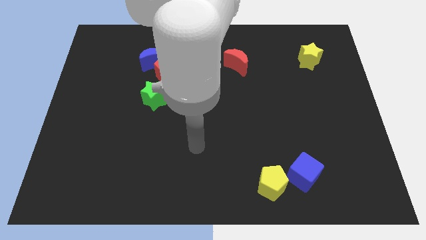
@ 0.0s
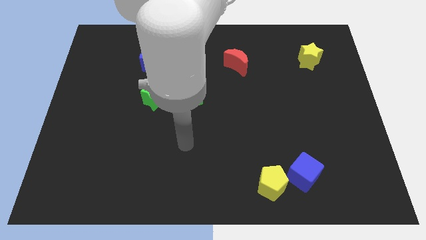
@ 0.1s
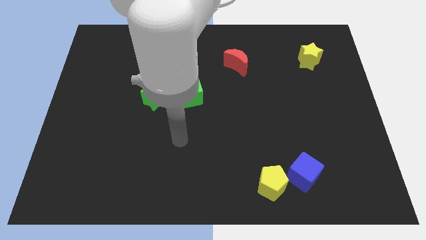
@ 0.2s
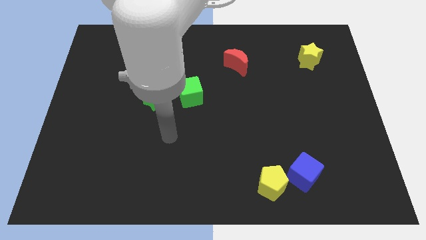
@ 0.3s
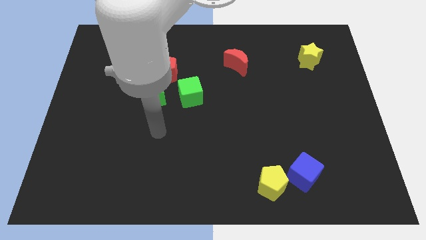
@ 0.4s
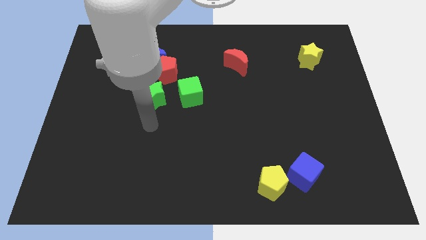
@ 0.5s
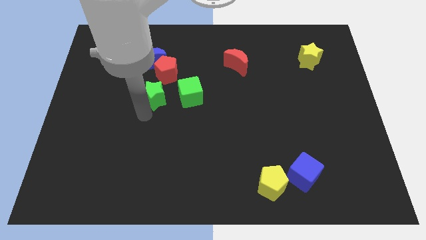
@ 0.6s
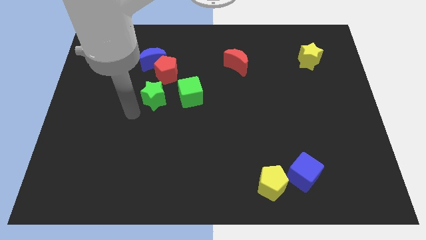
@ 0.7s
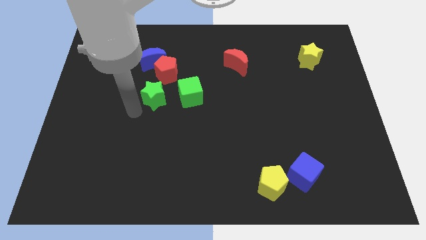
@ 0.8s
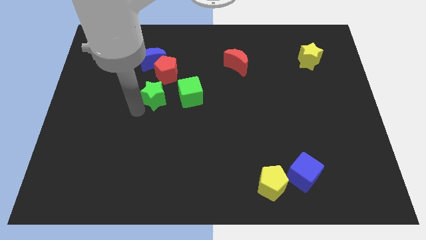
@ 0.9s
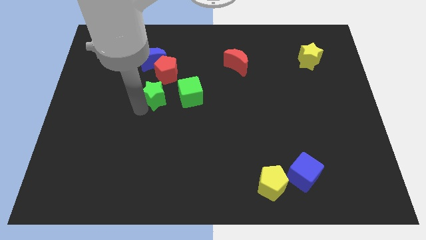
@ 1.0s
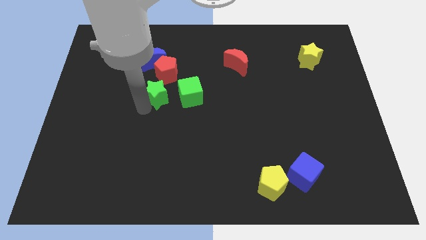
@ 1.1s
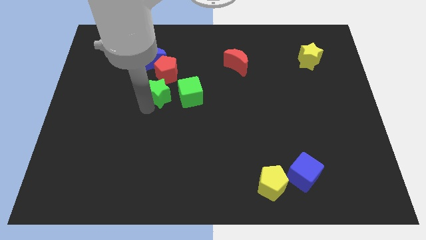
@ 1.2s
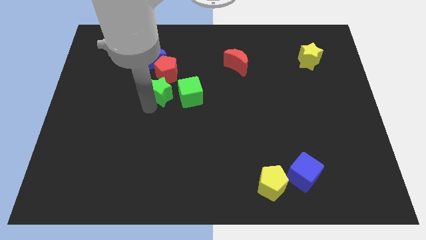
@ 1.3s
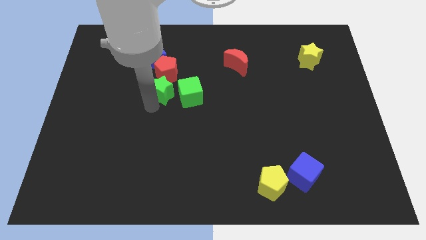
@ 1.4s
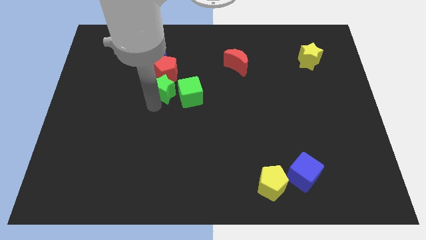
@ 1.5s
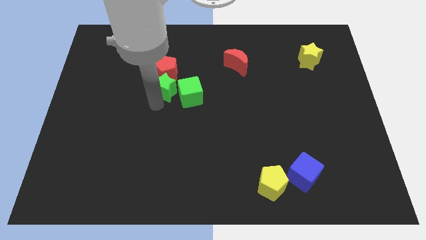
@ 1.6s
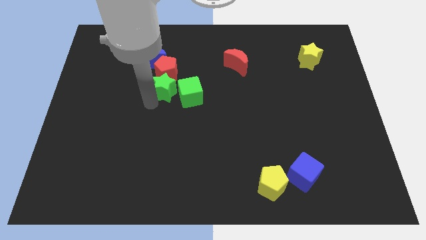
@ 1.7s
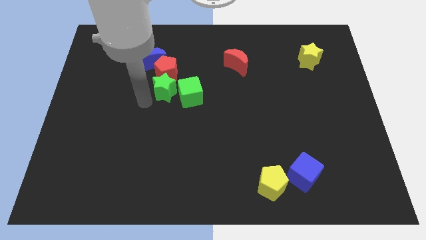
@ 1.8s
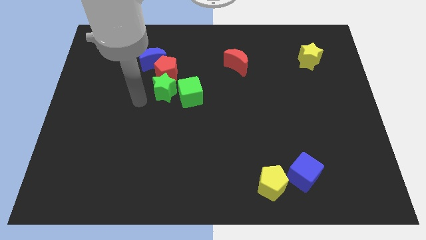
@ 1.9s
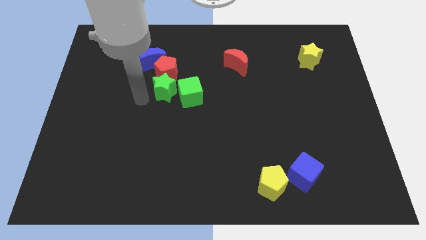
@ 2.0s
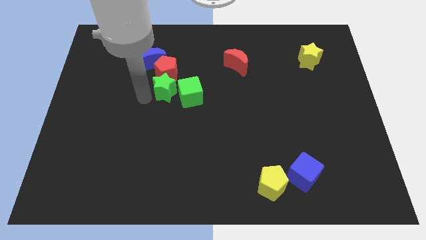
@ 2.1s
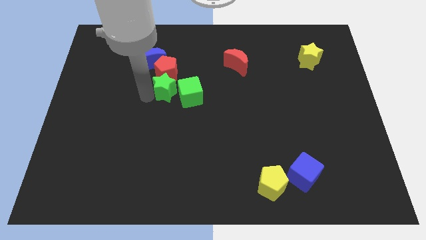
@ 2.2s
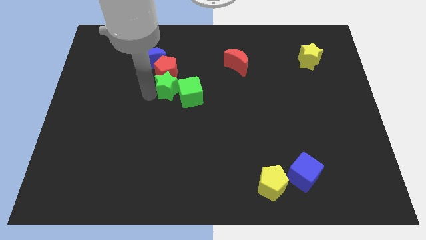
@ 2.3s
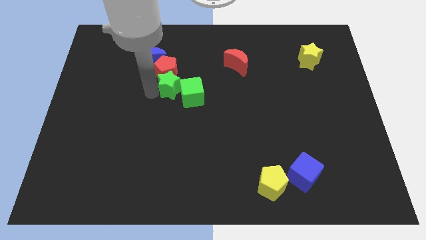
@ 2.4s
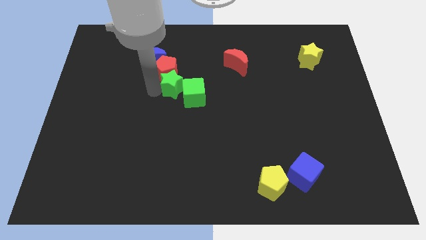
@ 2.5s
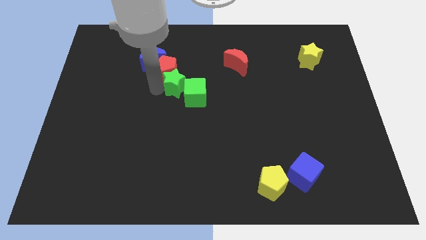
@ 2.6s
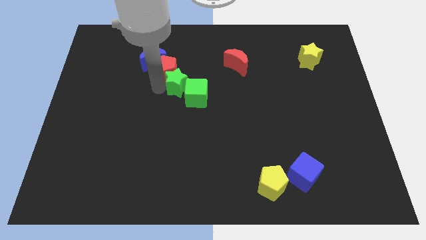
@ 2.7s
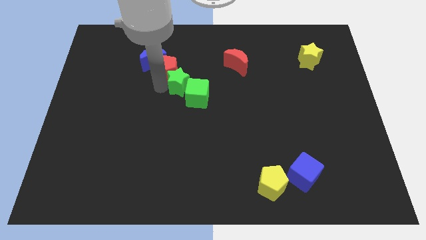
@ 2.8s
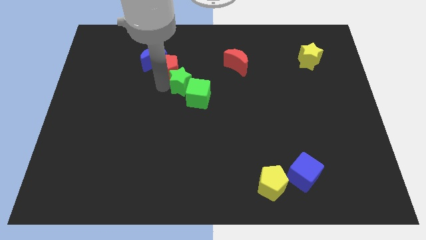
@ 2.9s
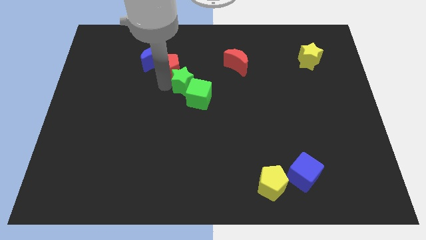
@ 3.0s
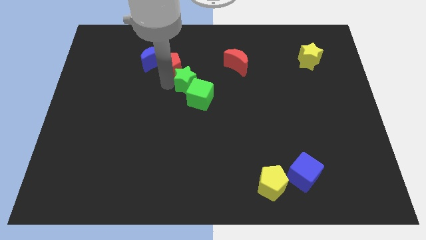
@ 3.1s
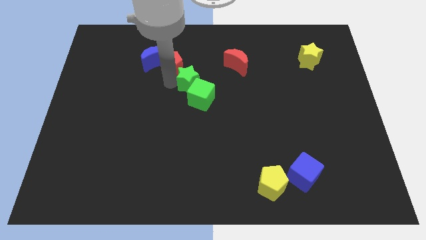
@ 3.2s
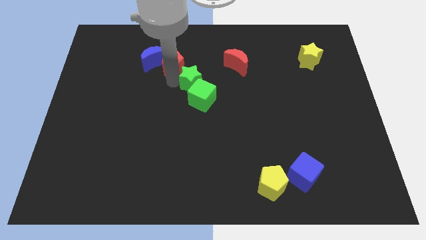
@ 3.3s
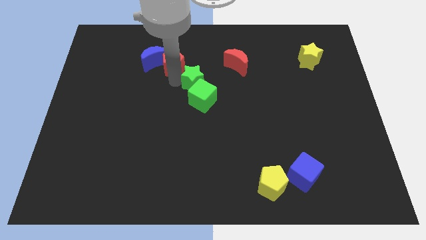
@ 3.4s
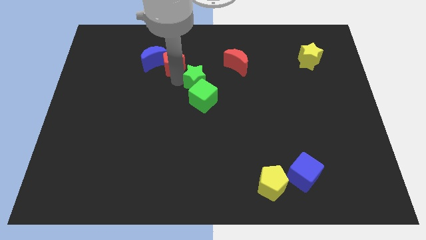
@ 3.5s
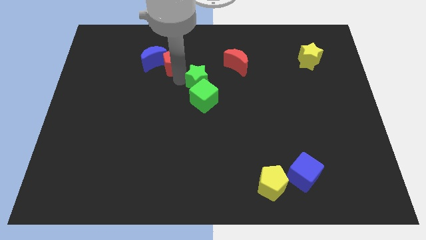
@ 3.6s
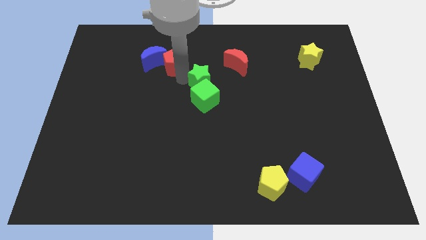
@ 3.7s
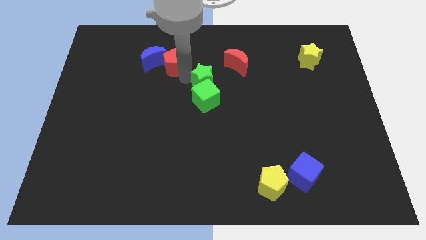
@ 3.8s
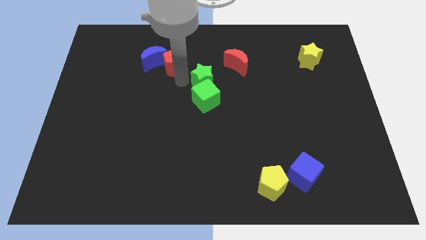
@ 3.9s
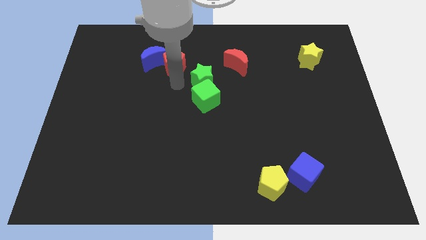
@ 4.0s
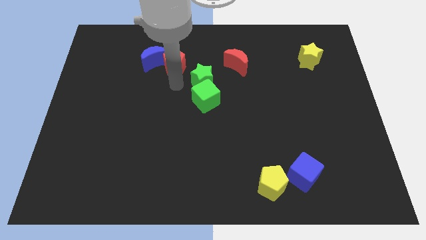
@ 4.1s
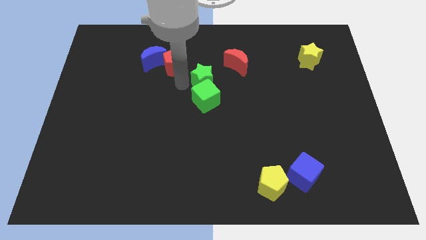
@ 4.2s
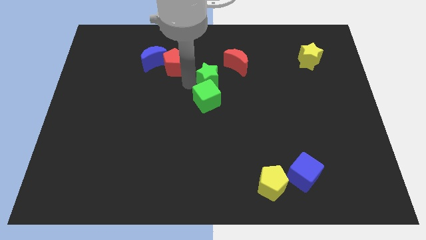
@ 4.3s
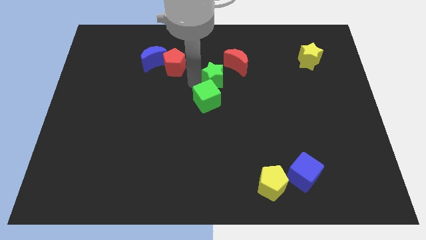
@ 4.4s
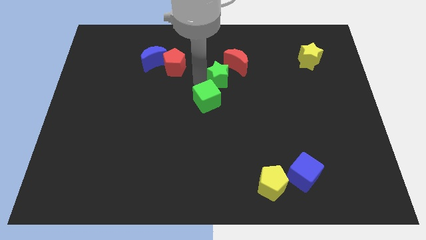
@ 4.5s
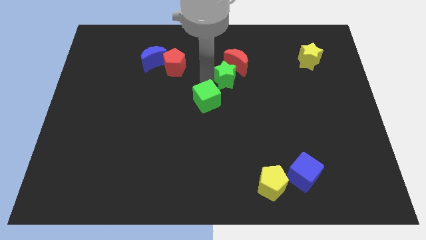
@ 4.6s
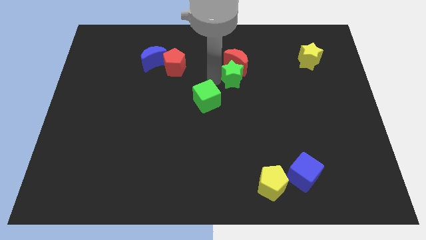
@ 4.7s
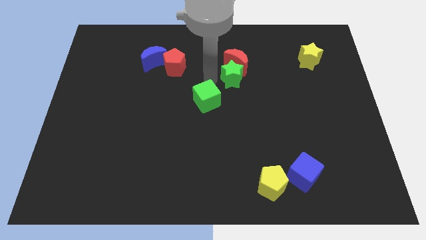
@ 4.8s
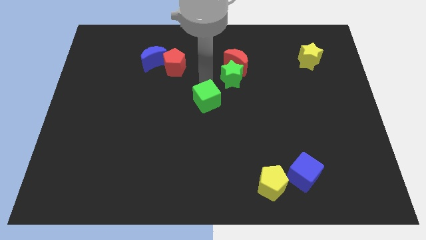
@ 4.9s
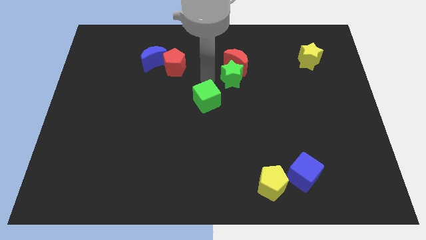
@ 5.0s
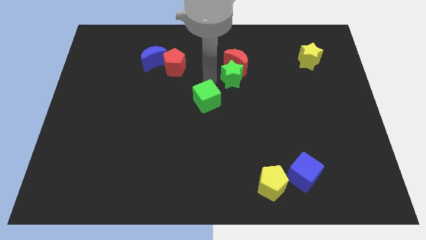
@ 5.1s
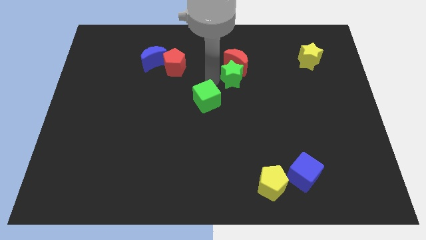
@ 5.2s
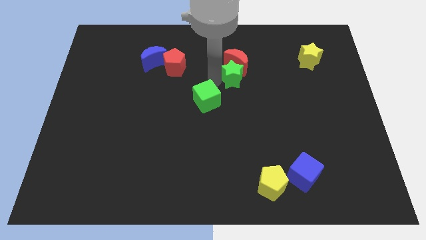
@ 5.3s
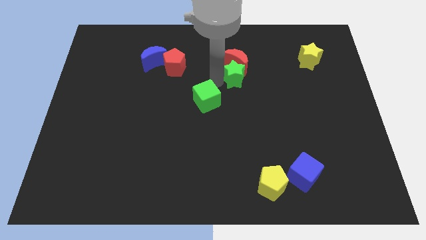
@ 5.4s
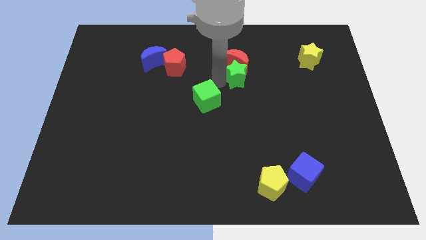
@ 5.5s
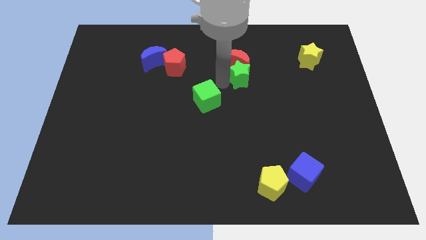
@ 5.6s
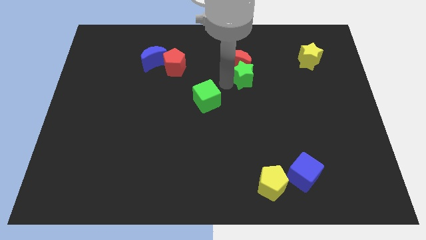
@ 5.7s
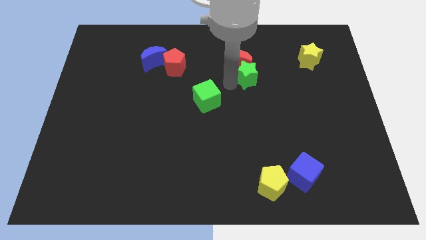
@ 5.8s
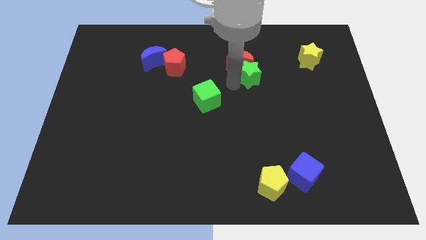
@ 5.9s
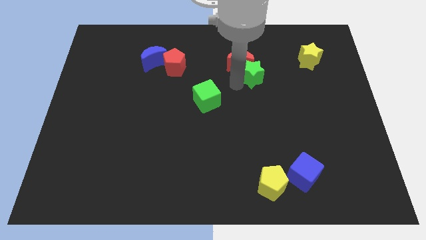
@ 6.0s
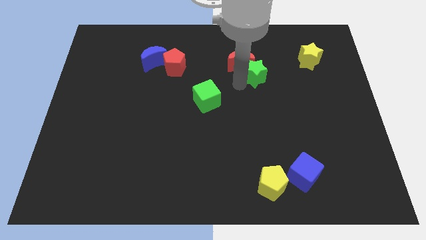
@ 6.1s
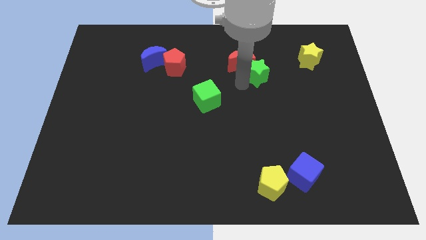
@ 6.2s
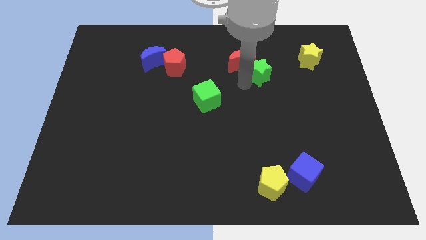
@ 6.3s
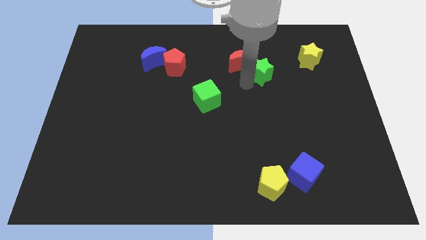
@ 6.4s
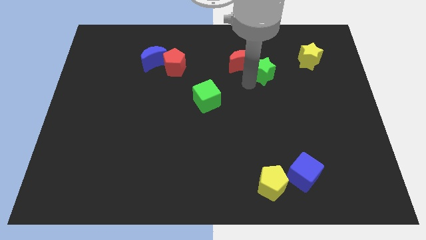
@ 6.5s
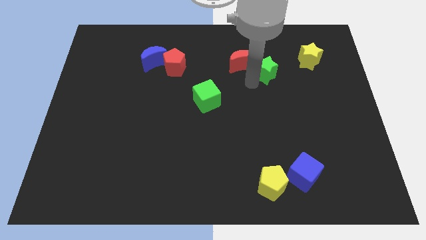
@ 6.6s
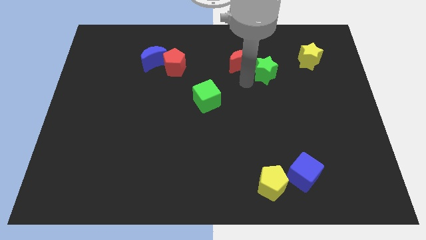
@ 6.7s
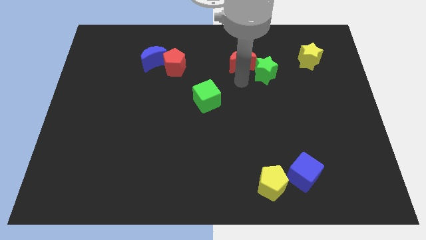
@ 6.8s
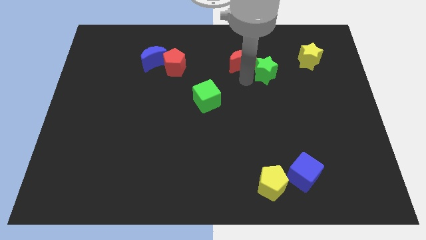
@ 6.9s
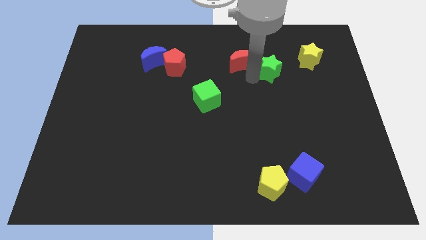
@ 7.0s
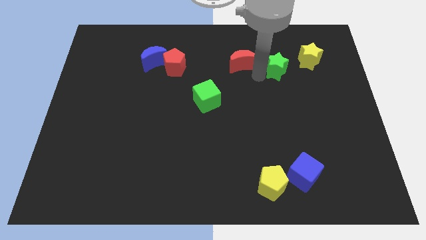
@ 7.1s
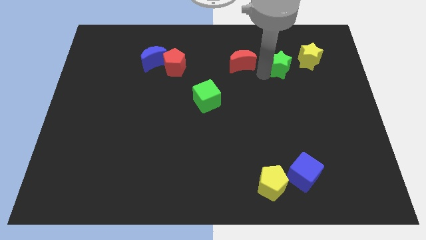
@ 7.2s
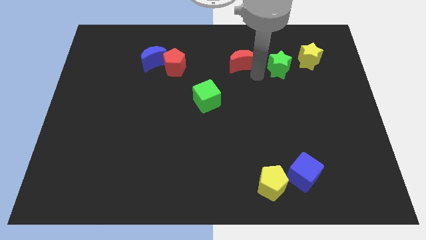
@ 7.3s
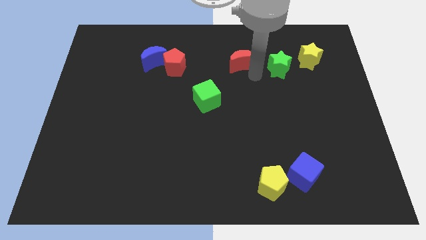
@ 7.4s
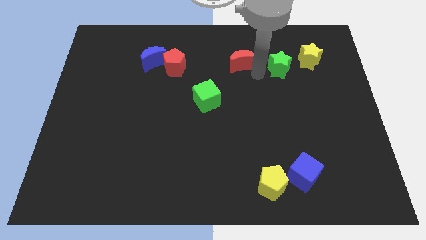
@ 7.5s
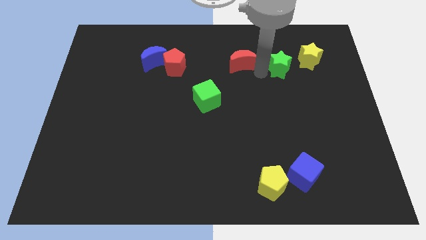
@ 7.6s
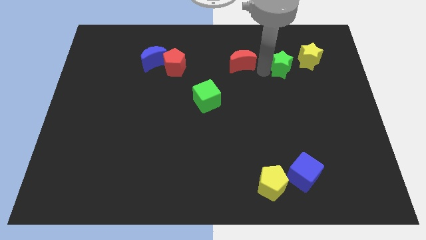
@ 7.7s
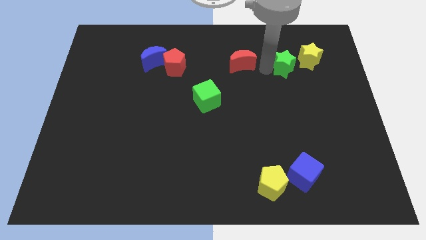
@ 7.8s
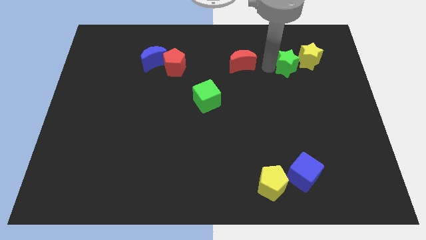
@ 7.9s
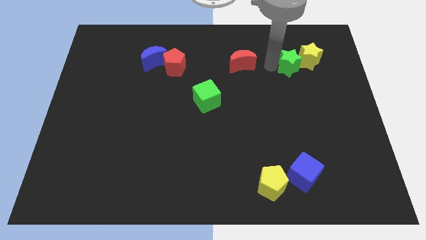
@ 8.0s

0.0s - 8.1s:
move the green star next to the yellow star
